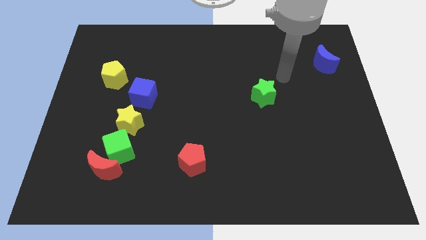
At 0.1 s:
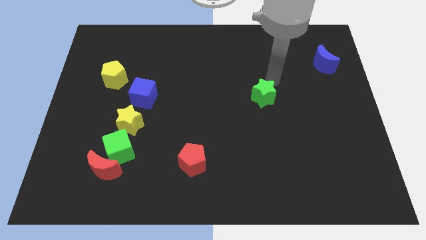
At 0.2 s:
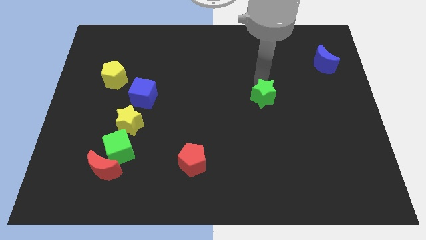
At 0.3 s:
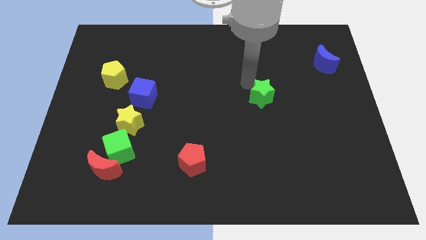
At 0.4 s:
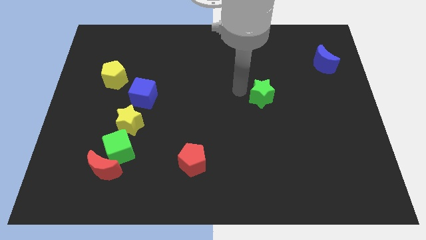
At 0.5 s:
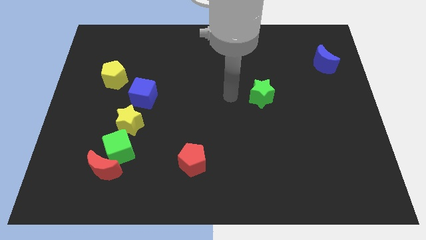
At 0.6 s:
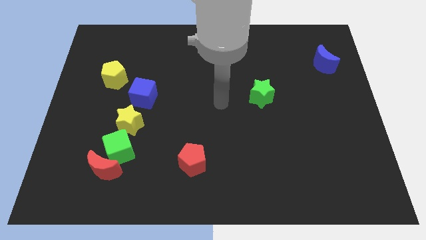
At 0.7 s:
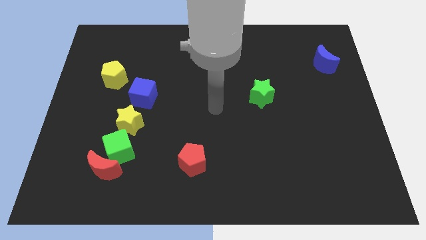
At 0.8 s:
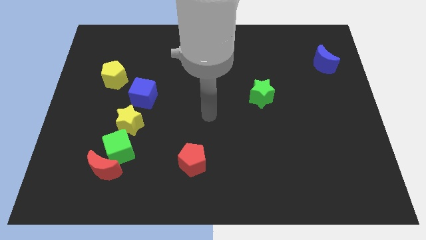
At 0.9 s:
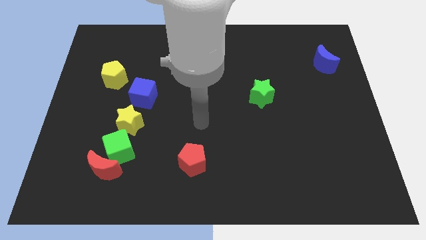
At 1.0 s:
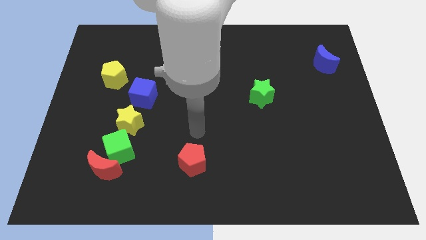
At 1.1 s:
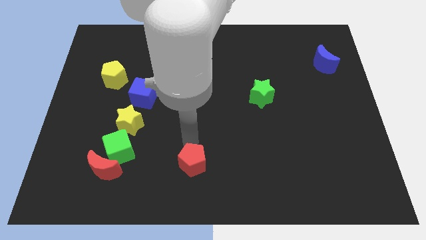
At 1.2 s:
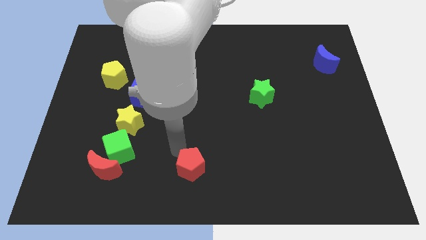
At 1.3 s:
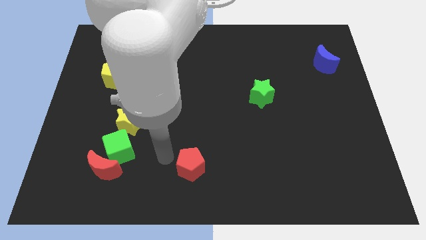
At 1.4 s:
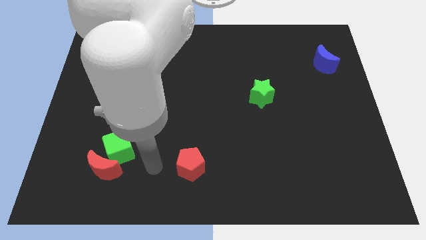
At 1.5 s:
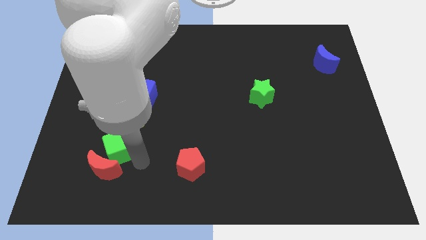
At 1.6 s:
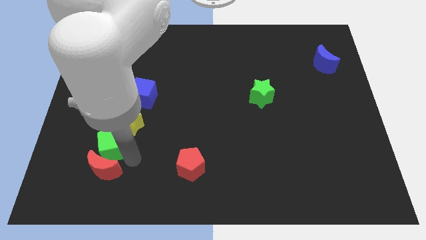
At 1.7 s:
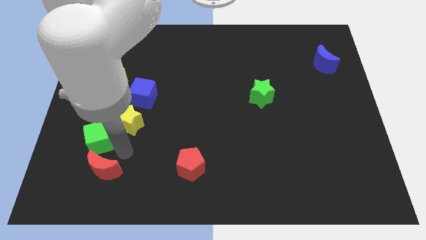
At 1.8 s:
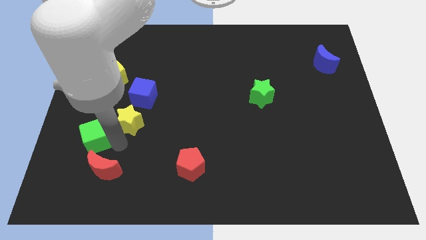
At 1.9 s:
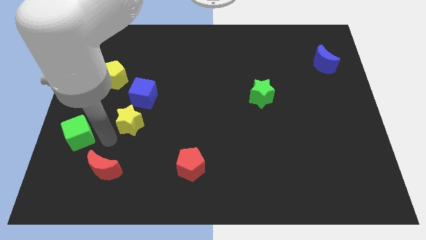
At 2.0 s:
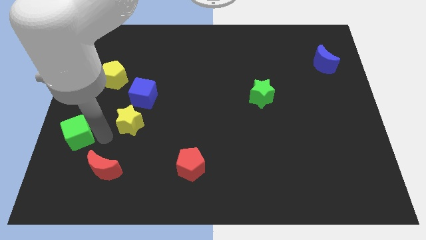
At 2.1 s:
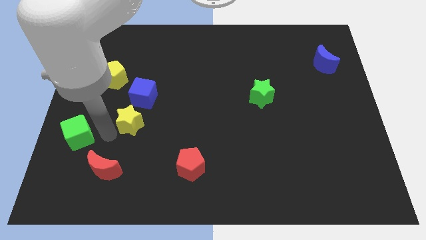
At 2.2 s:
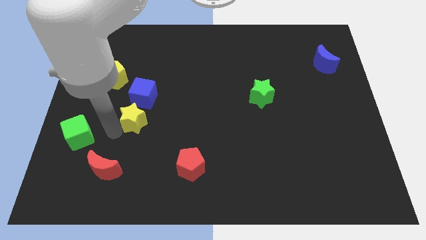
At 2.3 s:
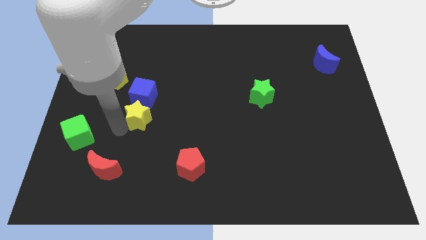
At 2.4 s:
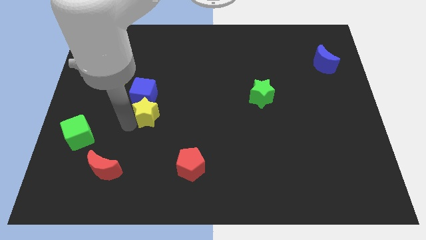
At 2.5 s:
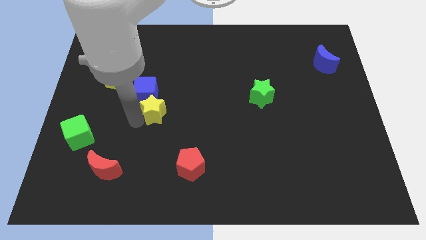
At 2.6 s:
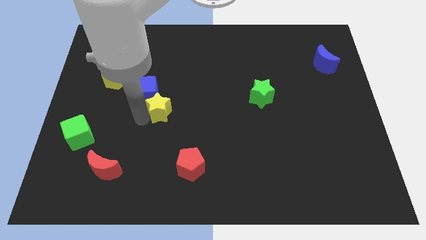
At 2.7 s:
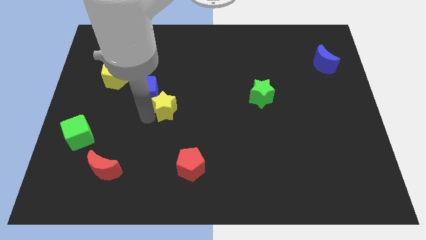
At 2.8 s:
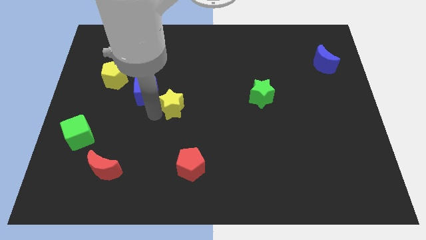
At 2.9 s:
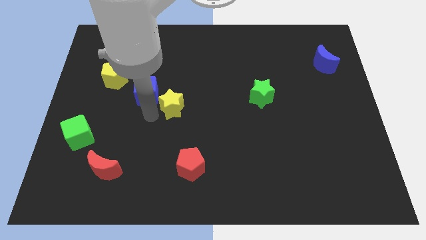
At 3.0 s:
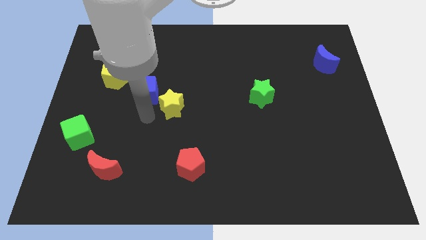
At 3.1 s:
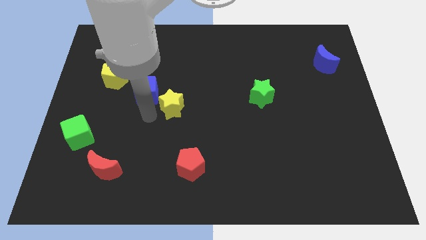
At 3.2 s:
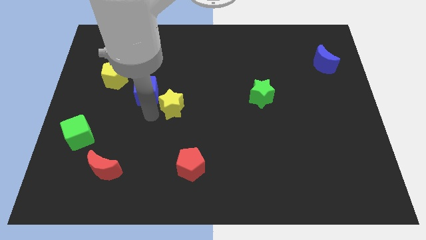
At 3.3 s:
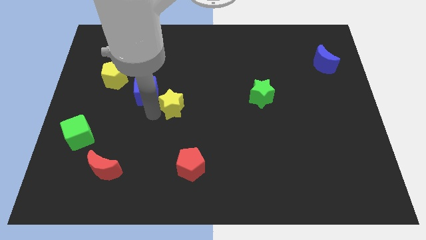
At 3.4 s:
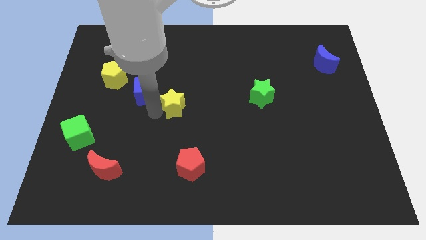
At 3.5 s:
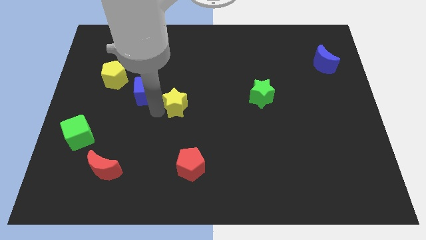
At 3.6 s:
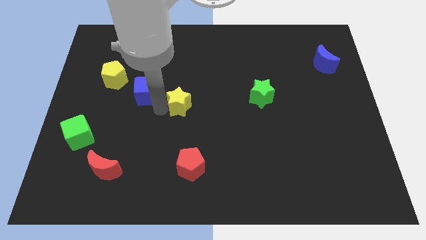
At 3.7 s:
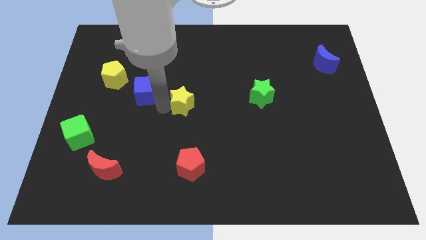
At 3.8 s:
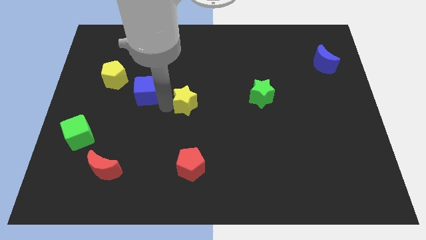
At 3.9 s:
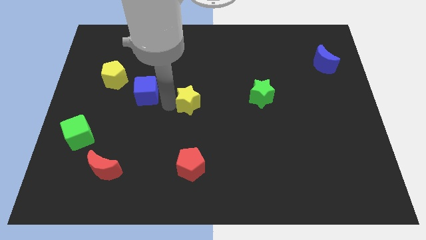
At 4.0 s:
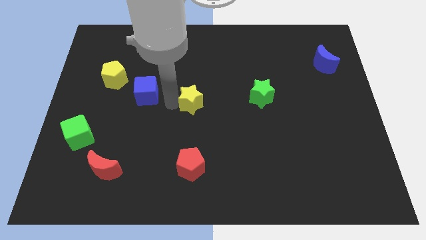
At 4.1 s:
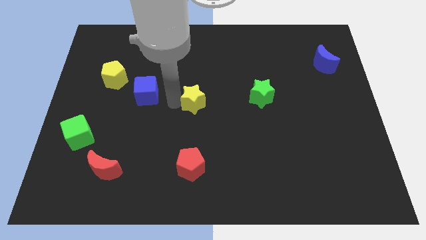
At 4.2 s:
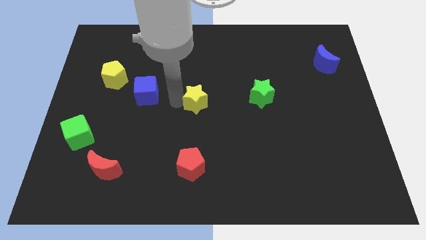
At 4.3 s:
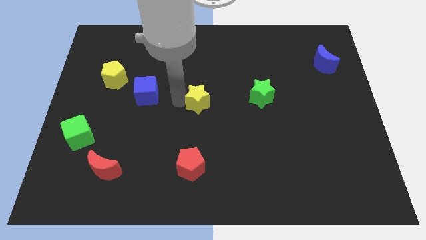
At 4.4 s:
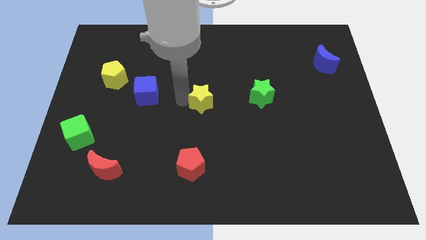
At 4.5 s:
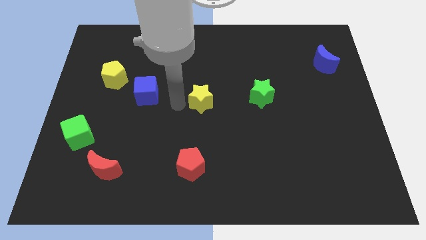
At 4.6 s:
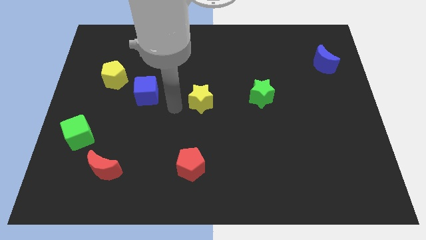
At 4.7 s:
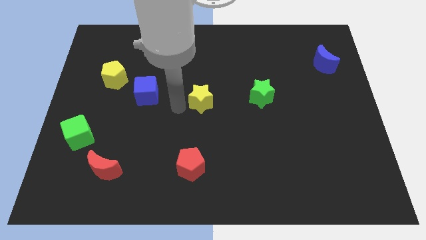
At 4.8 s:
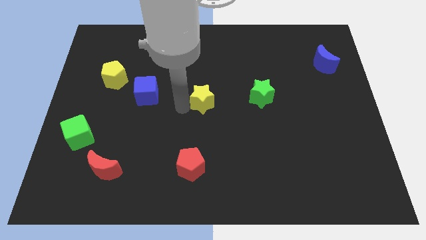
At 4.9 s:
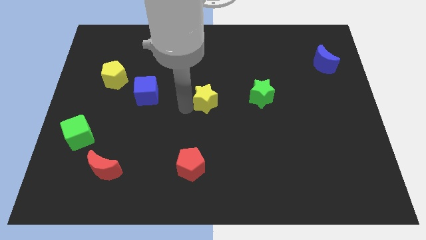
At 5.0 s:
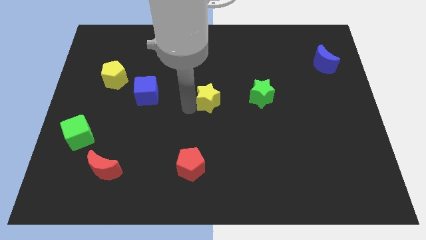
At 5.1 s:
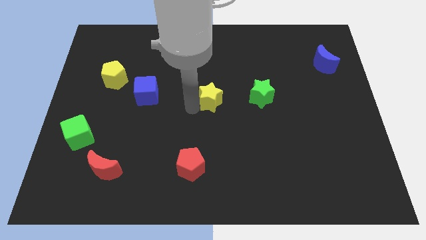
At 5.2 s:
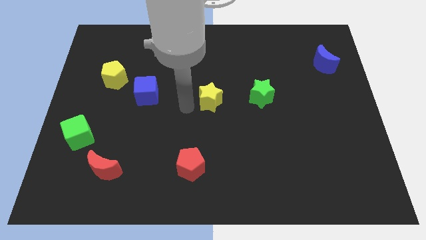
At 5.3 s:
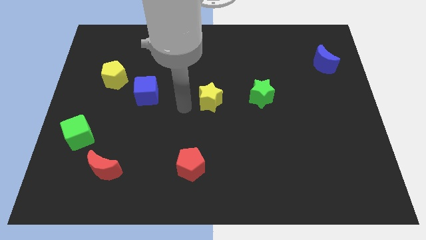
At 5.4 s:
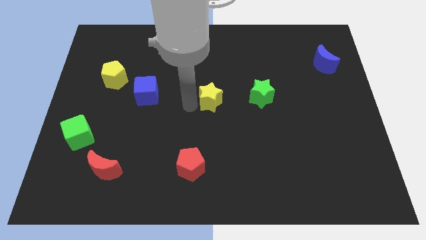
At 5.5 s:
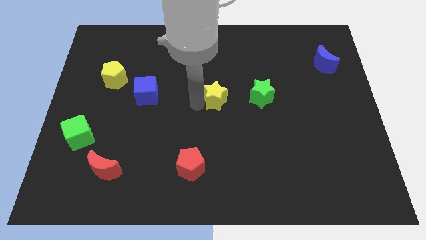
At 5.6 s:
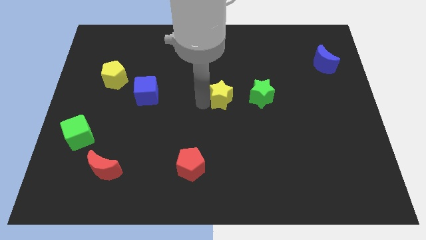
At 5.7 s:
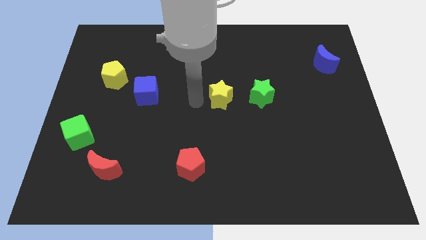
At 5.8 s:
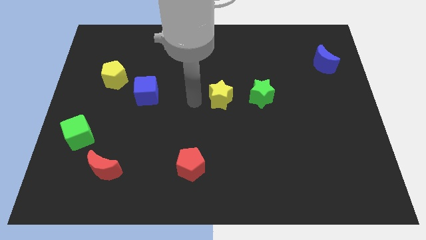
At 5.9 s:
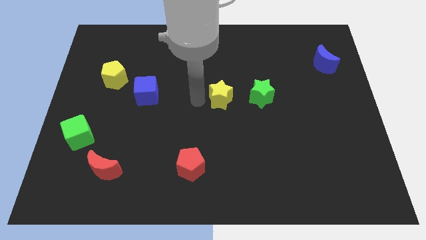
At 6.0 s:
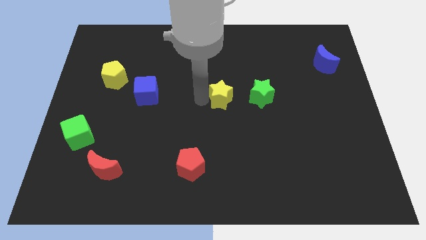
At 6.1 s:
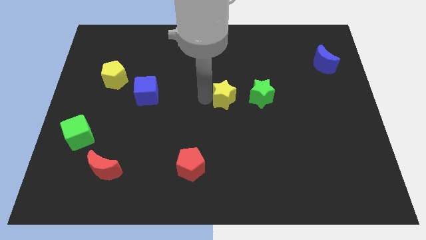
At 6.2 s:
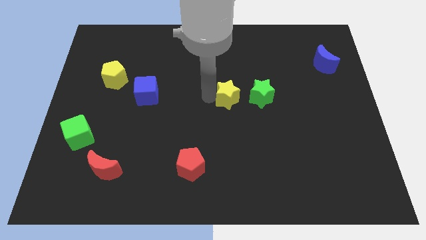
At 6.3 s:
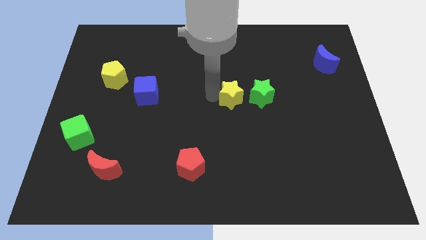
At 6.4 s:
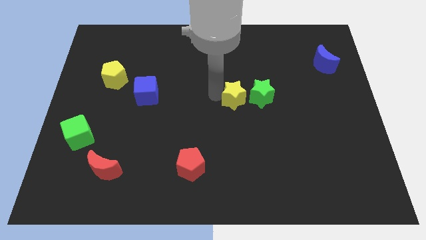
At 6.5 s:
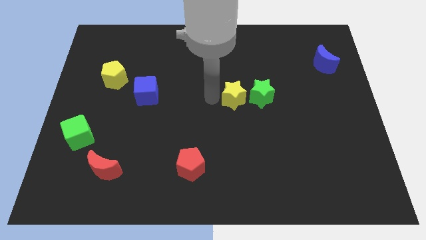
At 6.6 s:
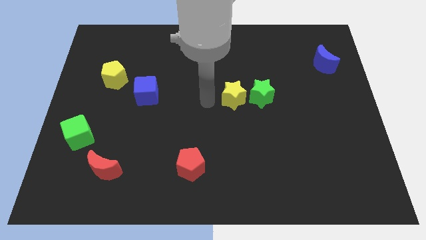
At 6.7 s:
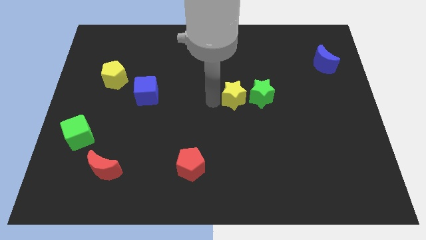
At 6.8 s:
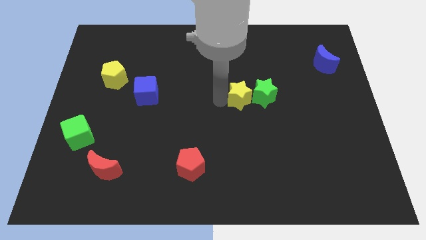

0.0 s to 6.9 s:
push the yellow star close to the green star

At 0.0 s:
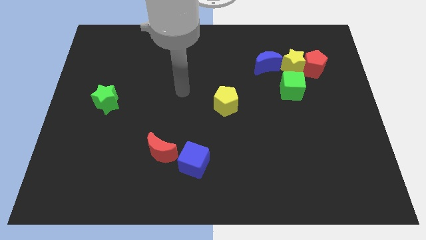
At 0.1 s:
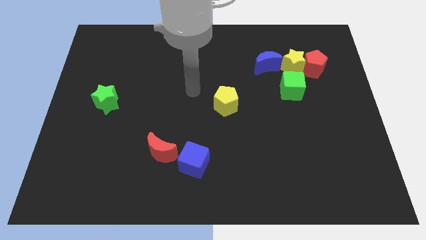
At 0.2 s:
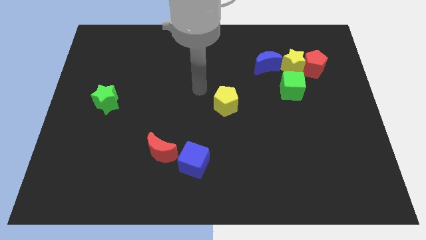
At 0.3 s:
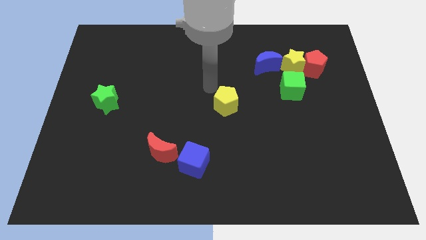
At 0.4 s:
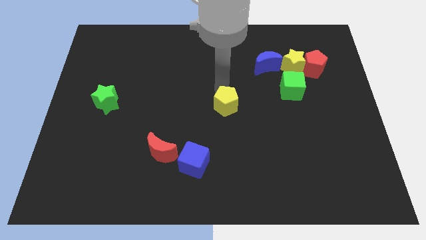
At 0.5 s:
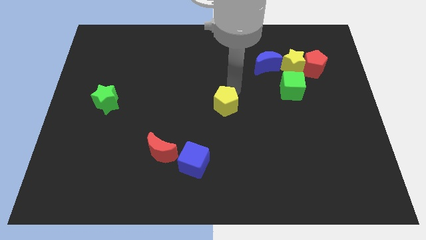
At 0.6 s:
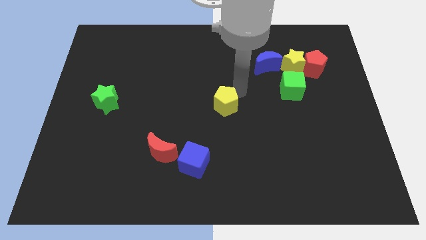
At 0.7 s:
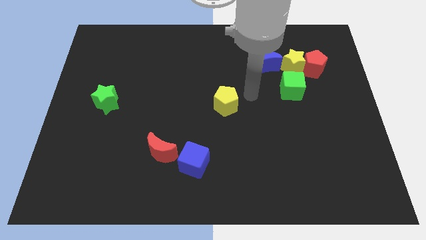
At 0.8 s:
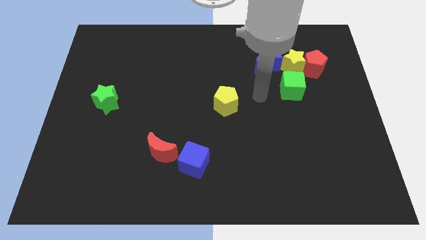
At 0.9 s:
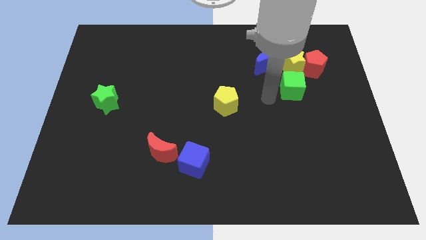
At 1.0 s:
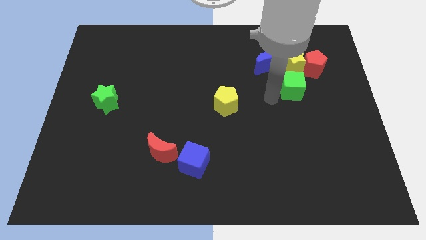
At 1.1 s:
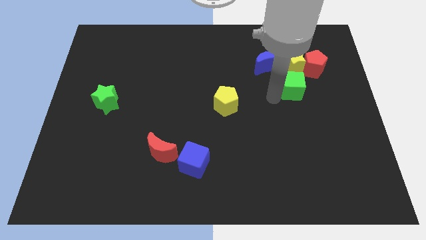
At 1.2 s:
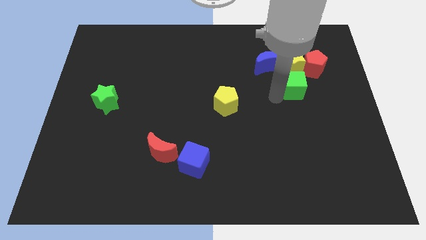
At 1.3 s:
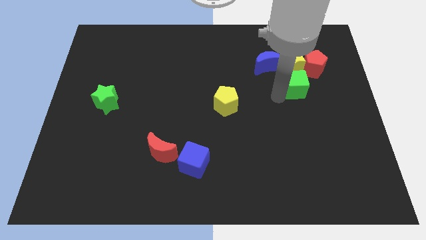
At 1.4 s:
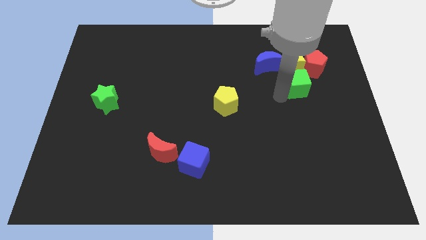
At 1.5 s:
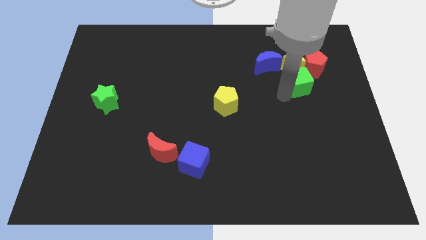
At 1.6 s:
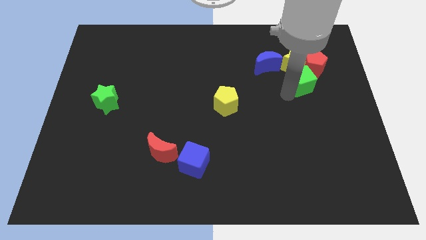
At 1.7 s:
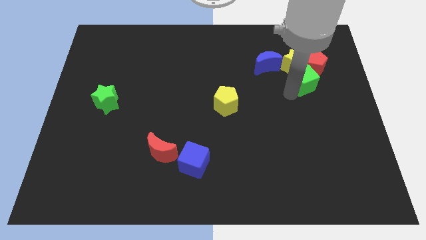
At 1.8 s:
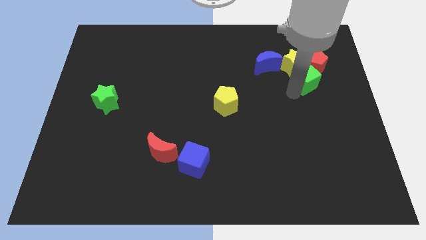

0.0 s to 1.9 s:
push the green cube close to the red pentagon
